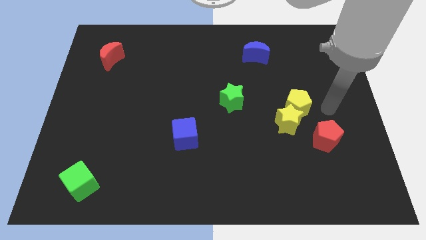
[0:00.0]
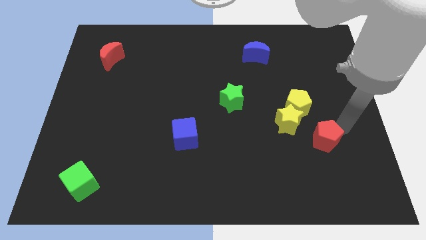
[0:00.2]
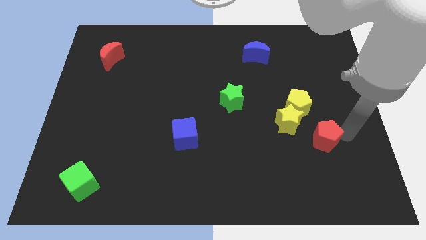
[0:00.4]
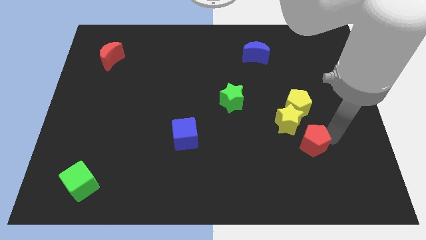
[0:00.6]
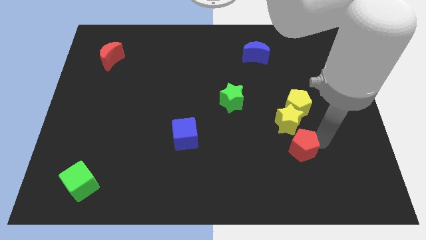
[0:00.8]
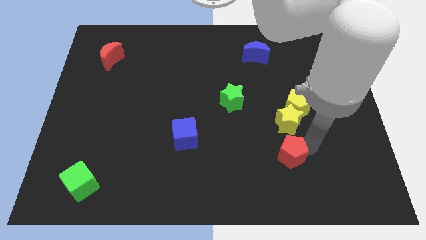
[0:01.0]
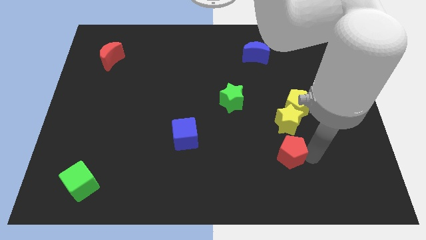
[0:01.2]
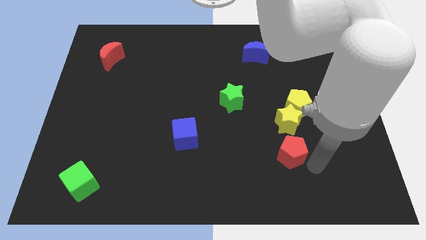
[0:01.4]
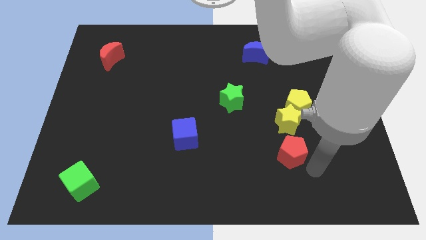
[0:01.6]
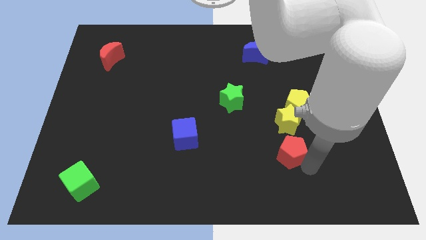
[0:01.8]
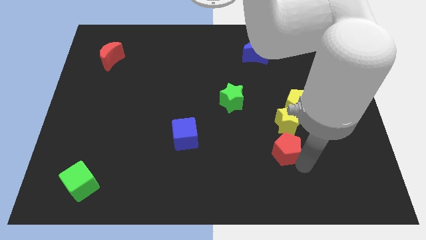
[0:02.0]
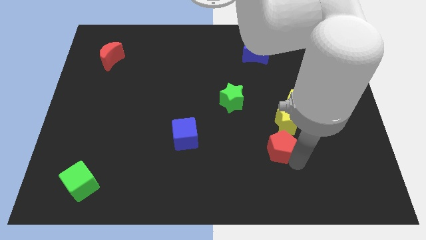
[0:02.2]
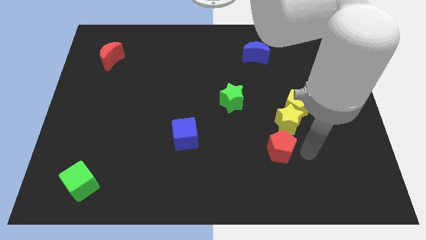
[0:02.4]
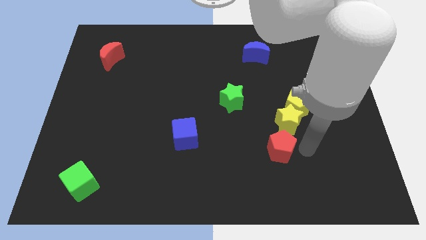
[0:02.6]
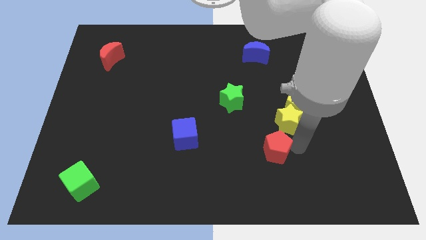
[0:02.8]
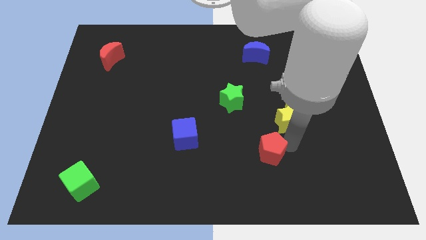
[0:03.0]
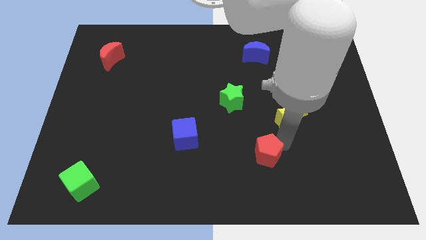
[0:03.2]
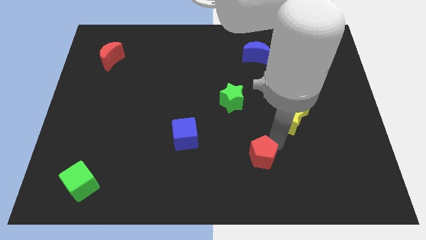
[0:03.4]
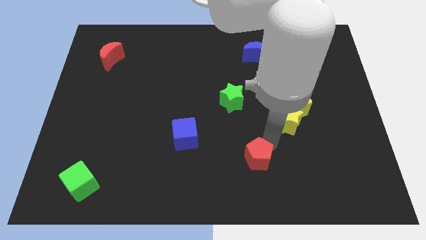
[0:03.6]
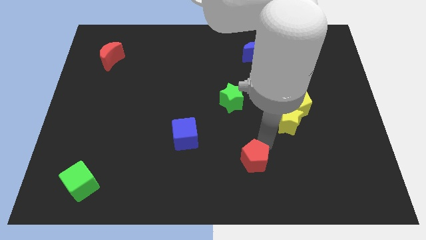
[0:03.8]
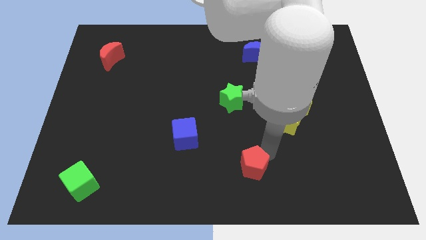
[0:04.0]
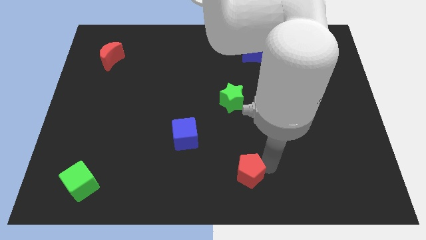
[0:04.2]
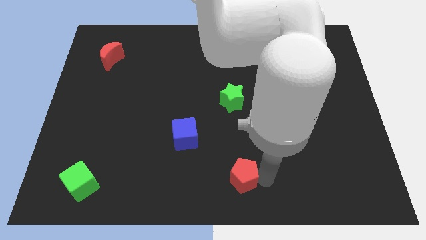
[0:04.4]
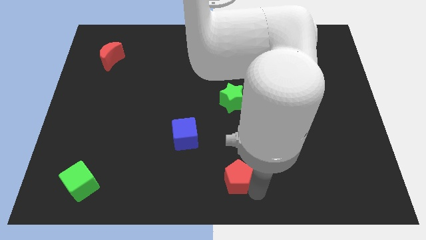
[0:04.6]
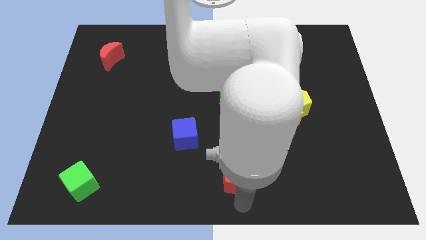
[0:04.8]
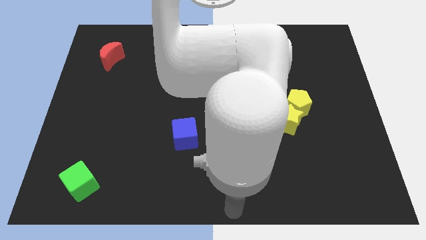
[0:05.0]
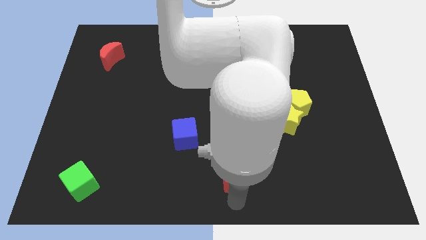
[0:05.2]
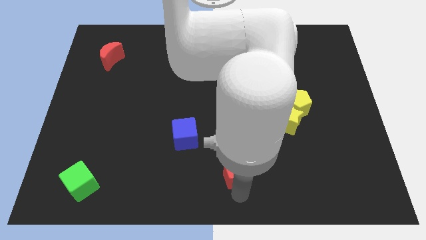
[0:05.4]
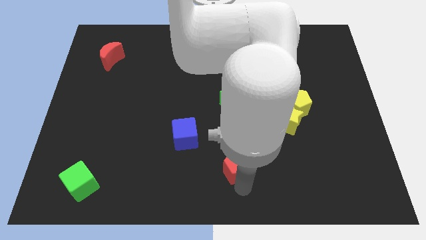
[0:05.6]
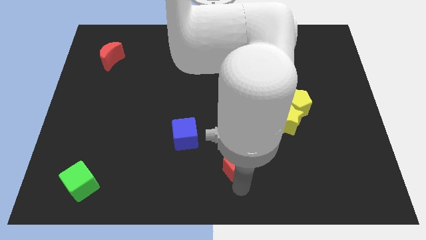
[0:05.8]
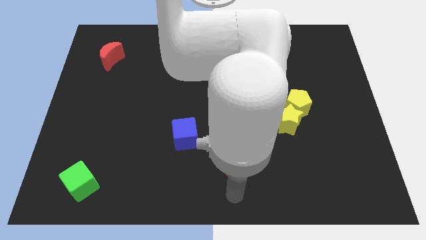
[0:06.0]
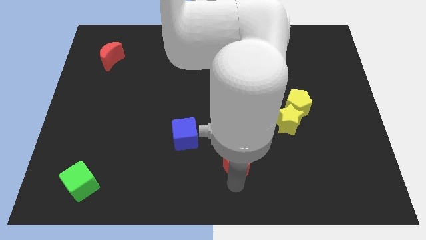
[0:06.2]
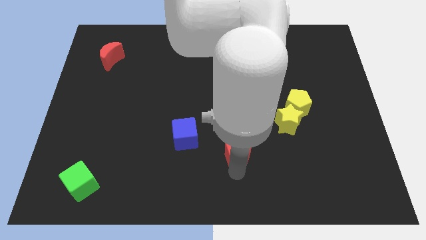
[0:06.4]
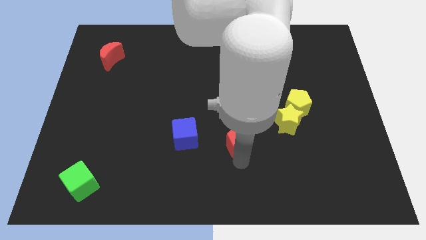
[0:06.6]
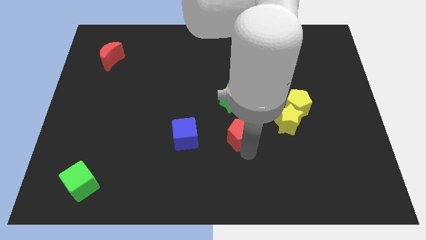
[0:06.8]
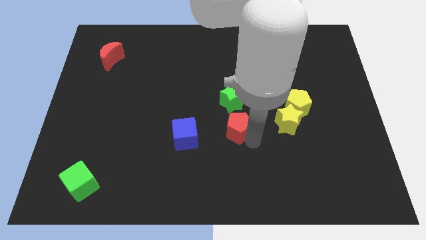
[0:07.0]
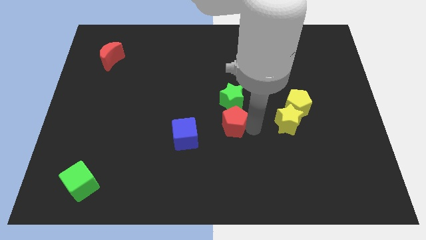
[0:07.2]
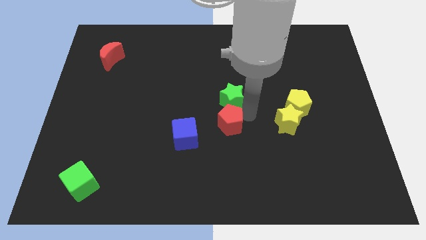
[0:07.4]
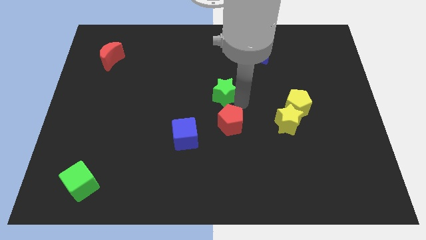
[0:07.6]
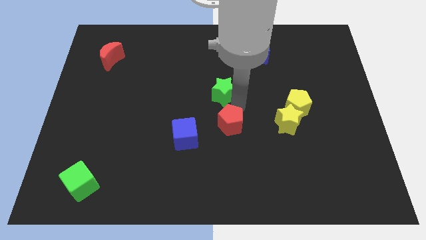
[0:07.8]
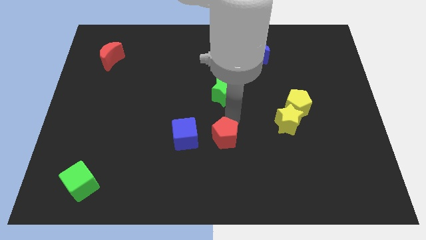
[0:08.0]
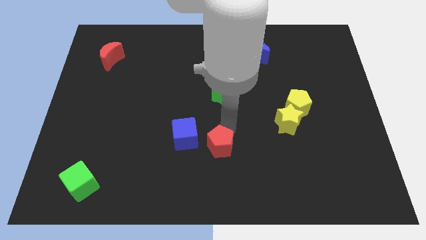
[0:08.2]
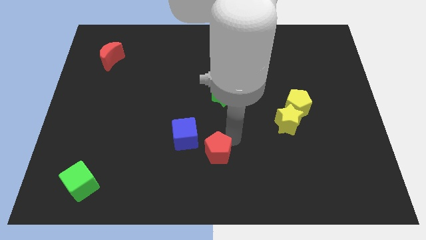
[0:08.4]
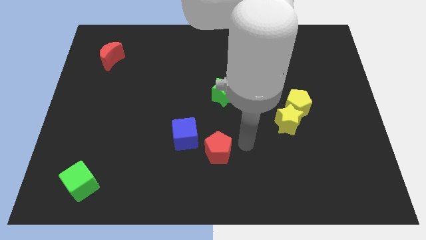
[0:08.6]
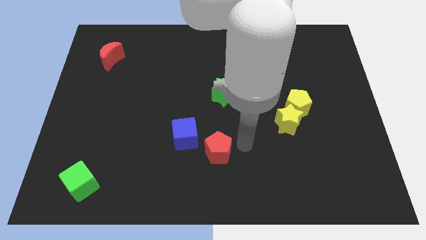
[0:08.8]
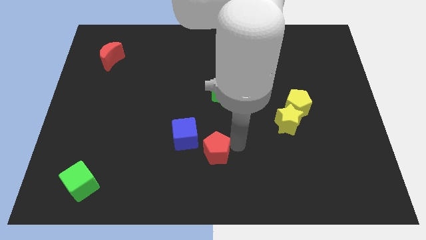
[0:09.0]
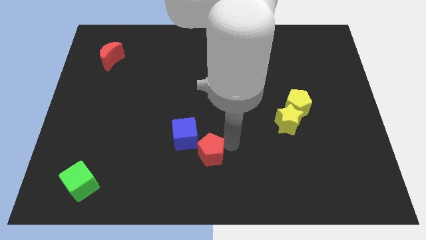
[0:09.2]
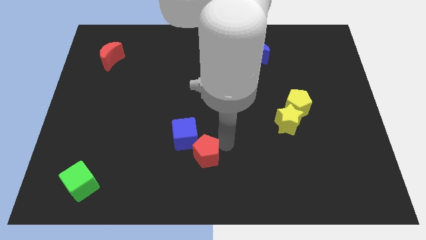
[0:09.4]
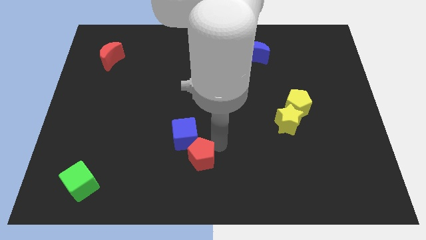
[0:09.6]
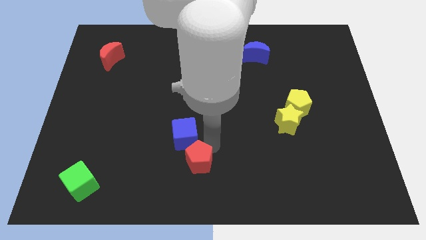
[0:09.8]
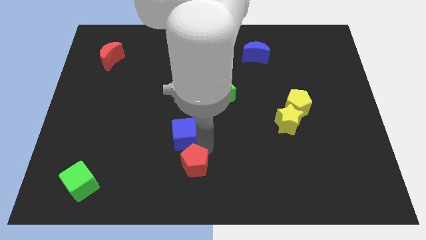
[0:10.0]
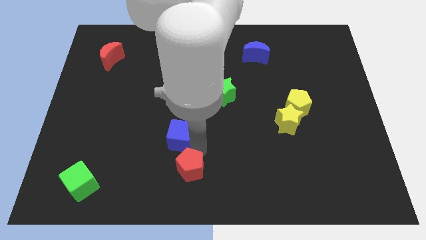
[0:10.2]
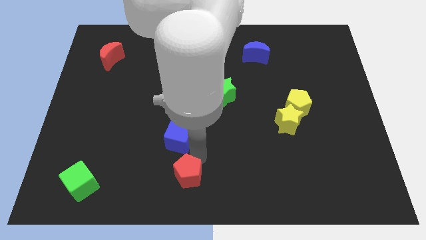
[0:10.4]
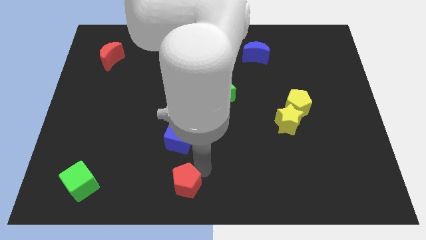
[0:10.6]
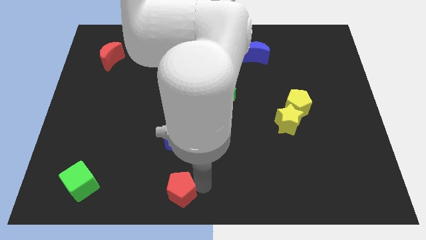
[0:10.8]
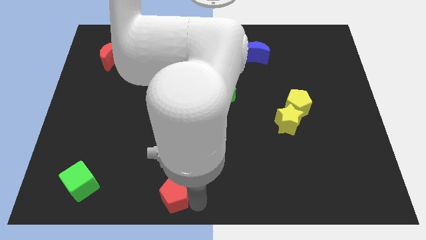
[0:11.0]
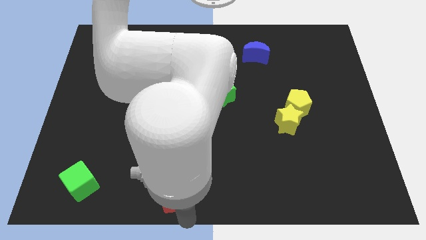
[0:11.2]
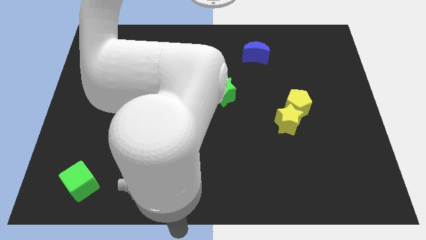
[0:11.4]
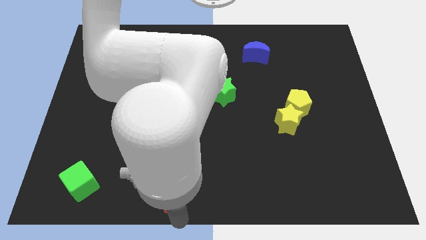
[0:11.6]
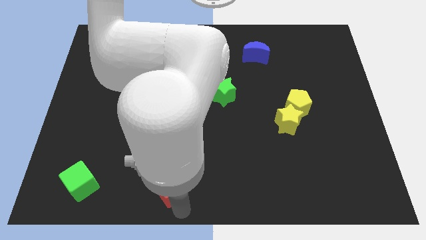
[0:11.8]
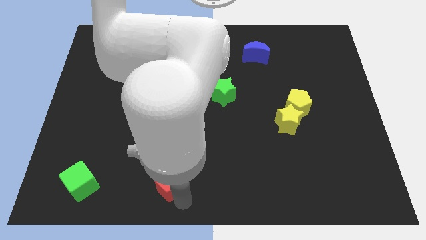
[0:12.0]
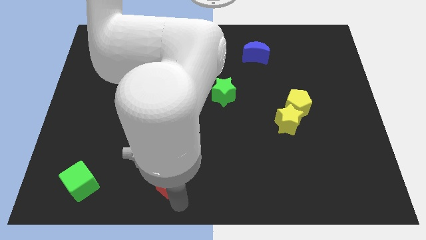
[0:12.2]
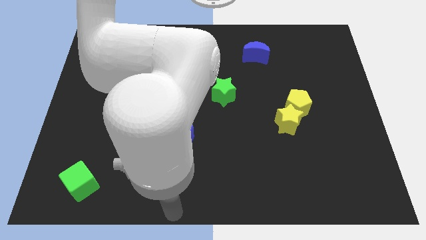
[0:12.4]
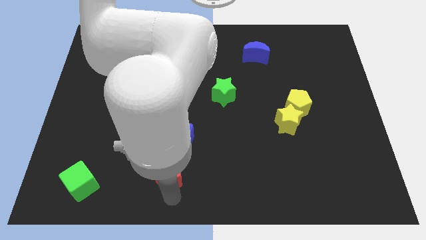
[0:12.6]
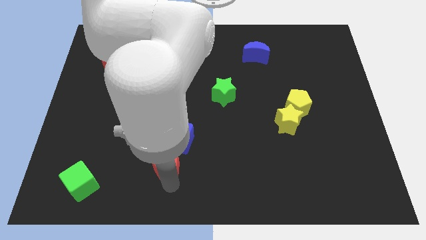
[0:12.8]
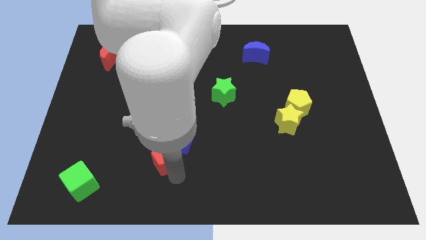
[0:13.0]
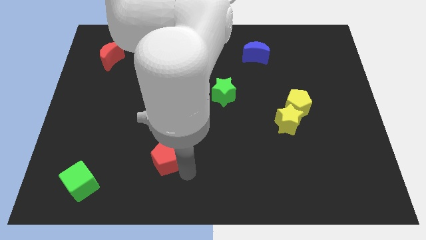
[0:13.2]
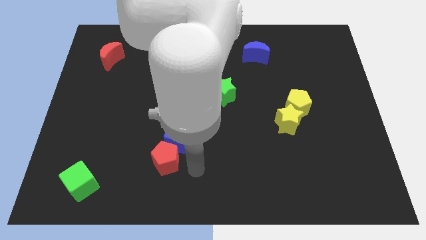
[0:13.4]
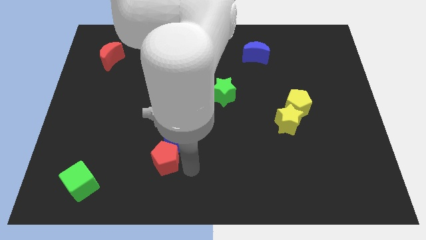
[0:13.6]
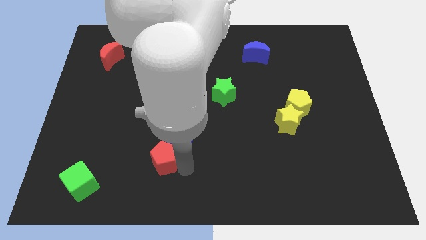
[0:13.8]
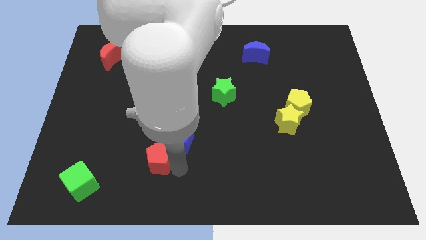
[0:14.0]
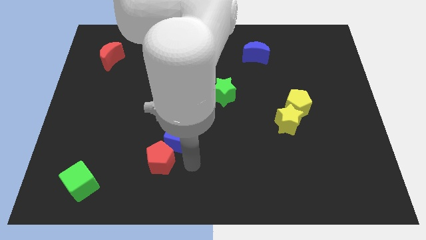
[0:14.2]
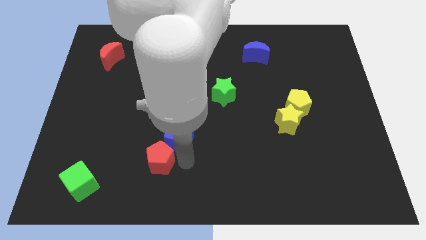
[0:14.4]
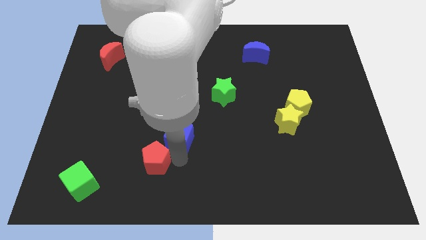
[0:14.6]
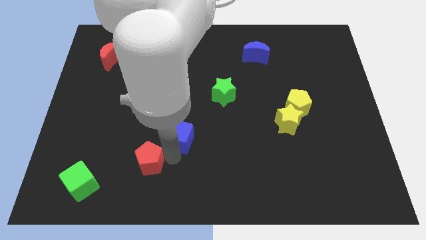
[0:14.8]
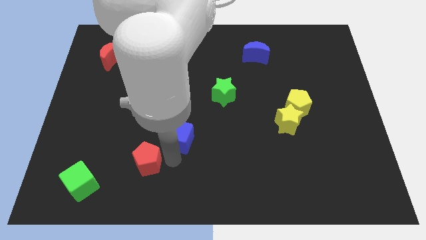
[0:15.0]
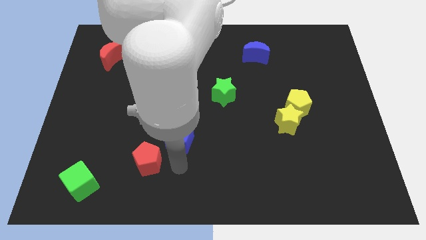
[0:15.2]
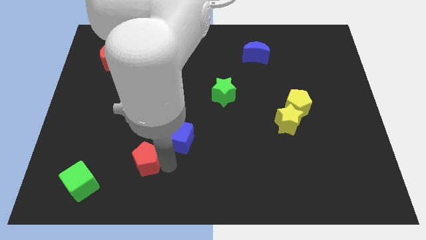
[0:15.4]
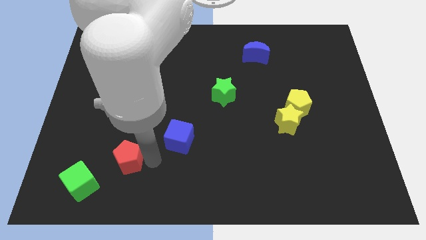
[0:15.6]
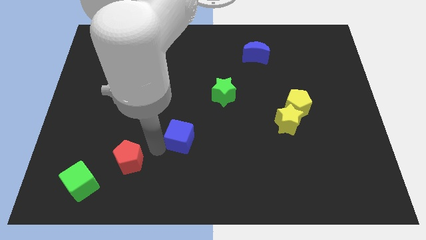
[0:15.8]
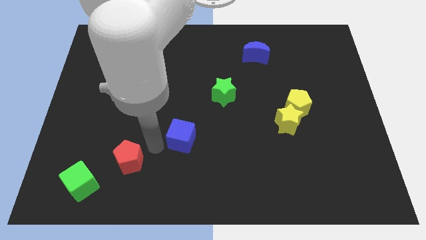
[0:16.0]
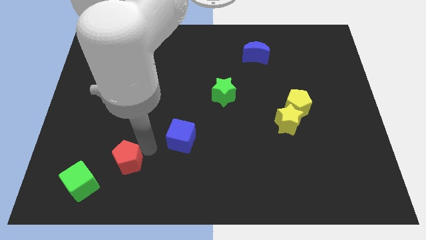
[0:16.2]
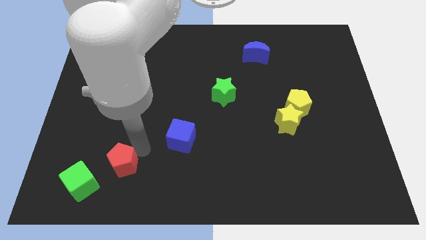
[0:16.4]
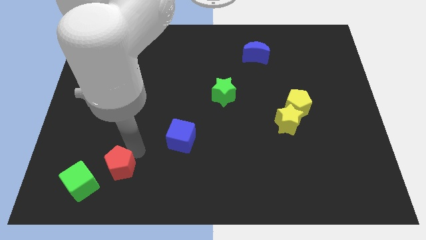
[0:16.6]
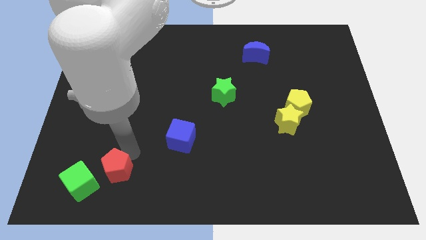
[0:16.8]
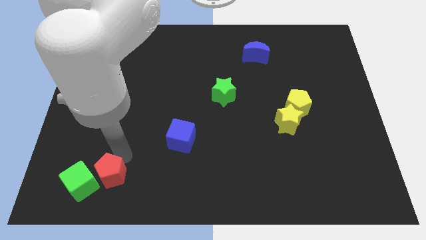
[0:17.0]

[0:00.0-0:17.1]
put the red pentagon next to the green cube
